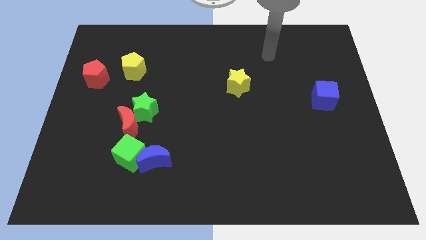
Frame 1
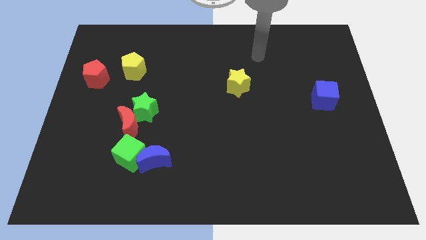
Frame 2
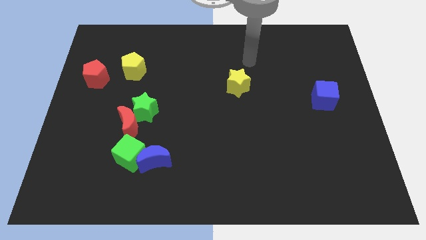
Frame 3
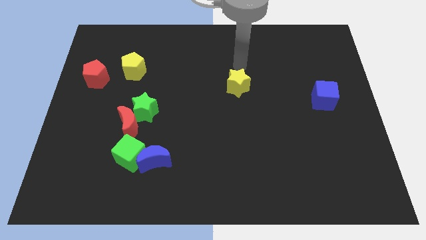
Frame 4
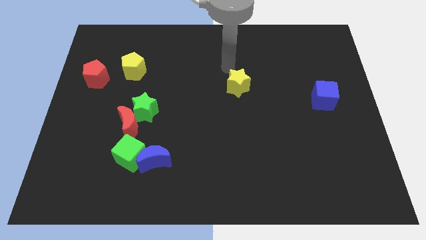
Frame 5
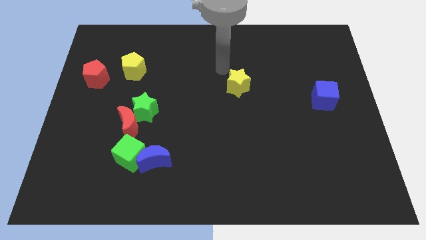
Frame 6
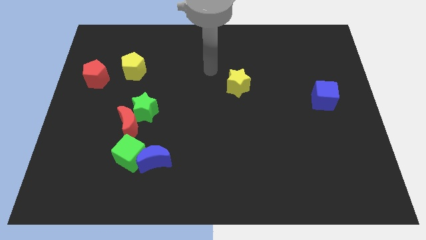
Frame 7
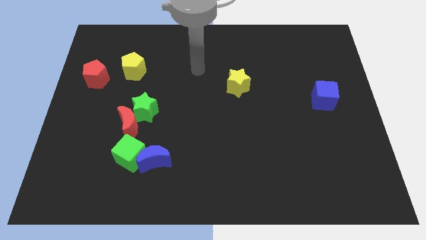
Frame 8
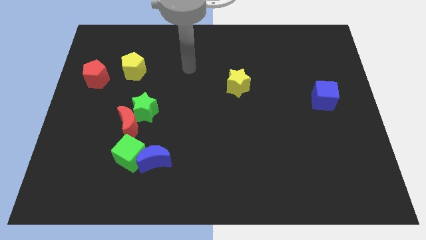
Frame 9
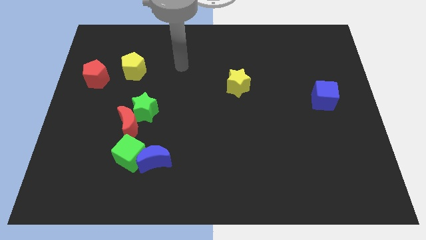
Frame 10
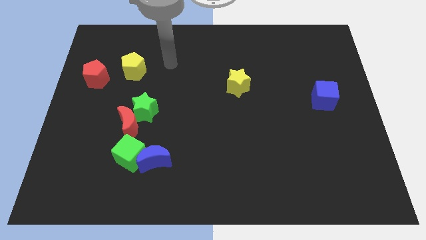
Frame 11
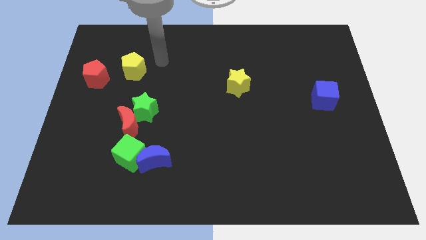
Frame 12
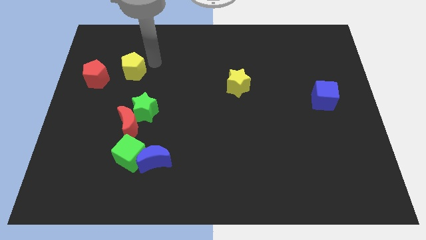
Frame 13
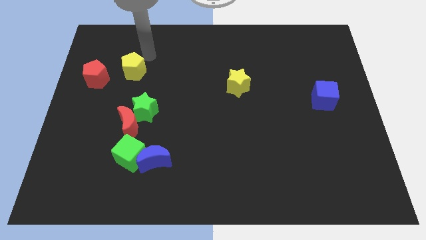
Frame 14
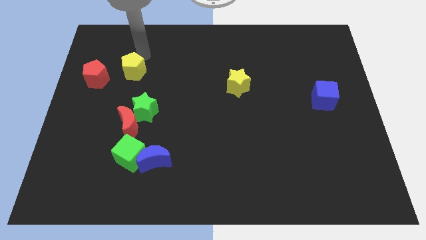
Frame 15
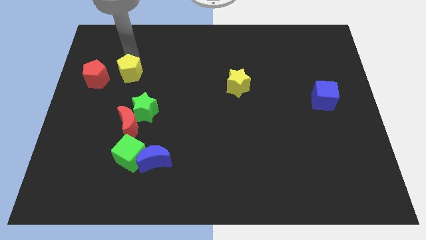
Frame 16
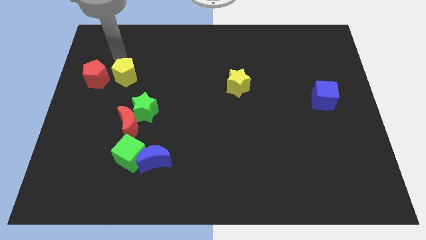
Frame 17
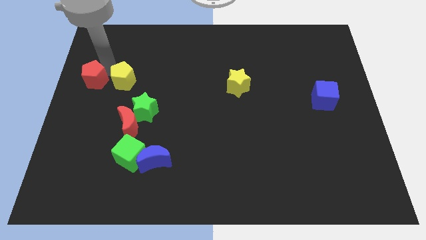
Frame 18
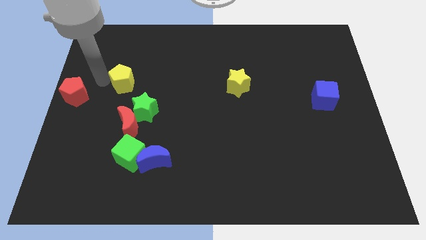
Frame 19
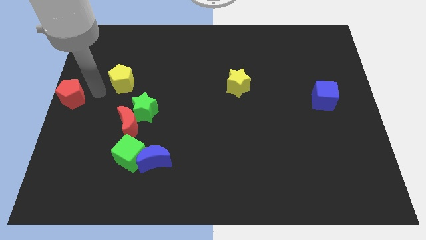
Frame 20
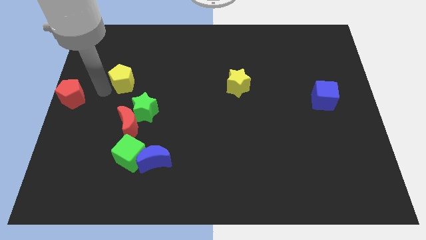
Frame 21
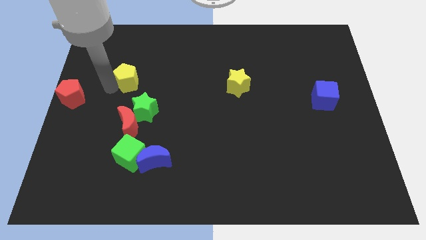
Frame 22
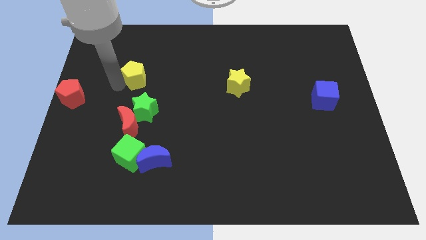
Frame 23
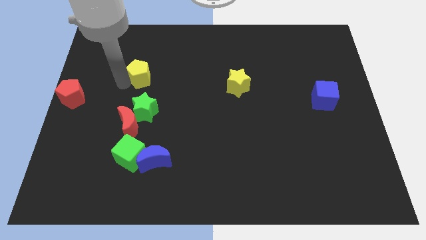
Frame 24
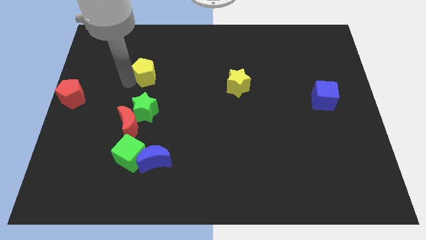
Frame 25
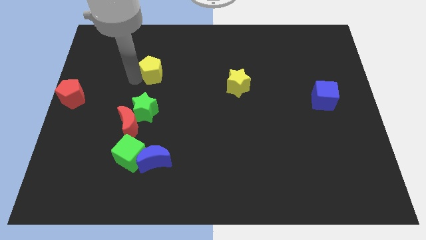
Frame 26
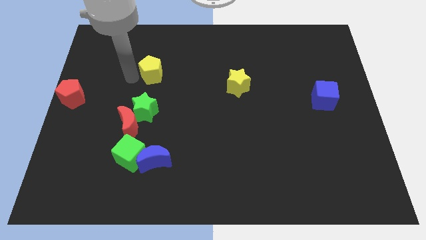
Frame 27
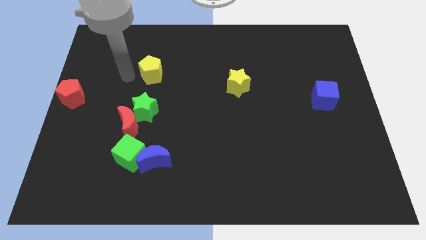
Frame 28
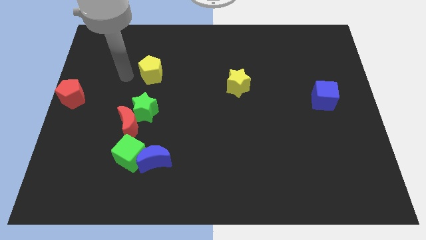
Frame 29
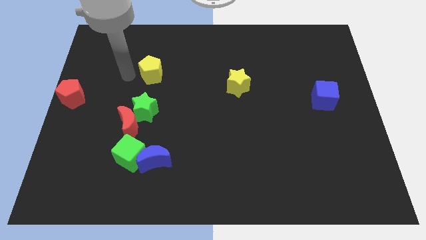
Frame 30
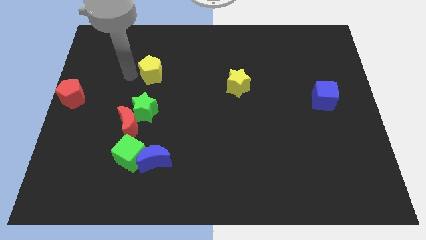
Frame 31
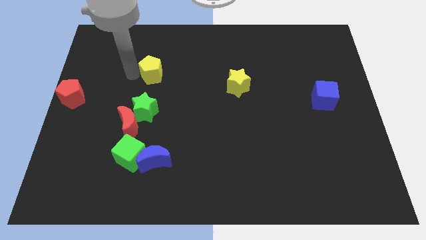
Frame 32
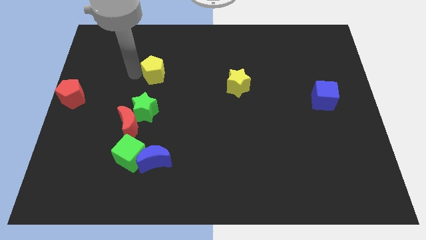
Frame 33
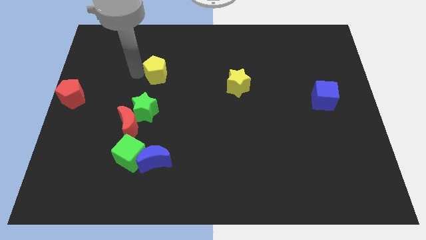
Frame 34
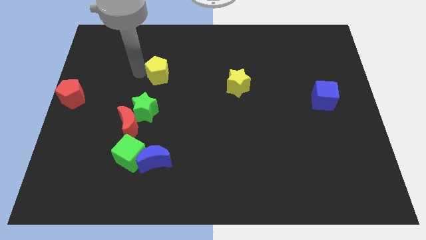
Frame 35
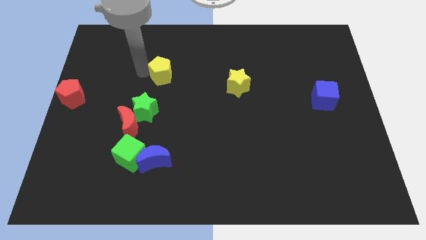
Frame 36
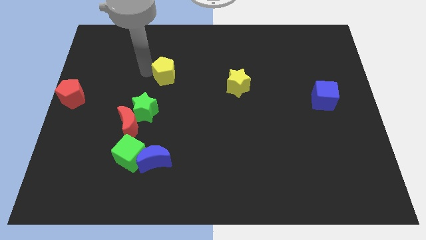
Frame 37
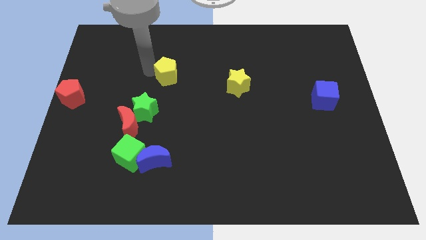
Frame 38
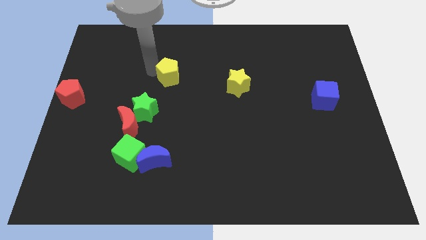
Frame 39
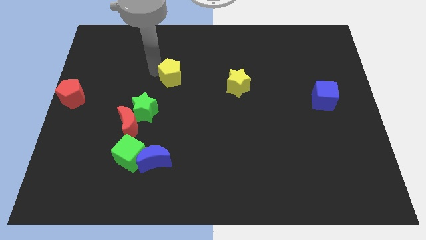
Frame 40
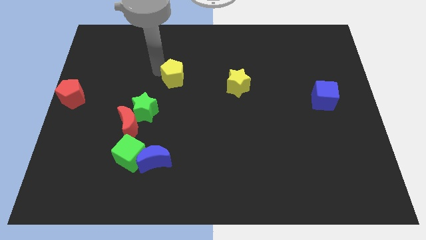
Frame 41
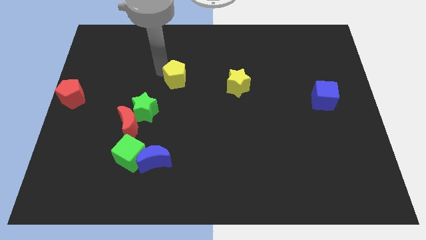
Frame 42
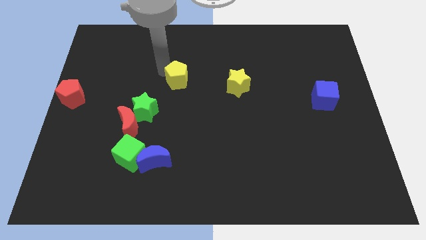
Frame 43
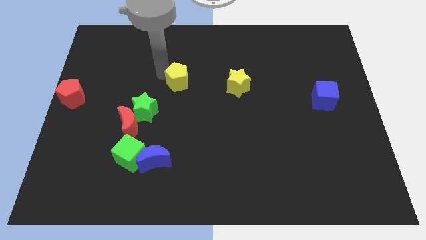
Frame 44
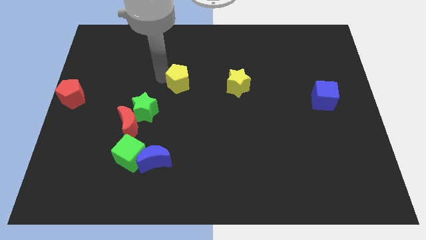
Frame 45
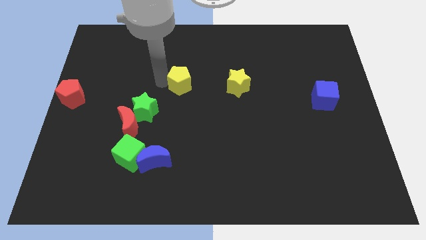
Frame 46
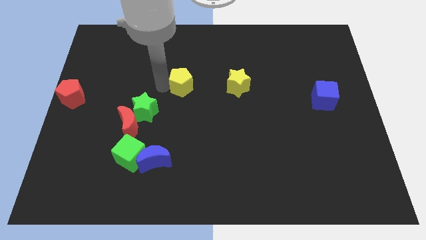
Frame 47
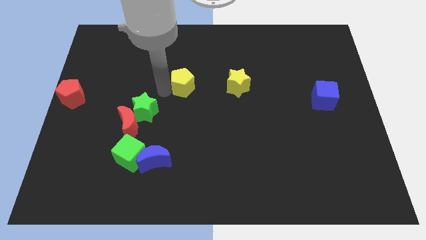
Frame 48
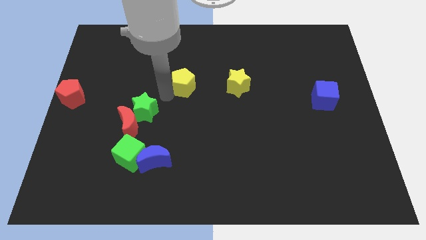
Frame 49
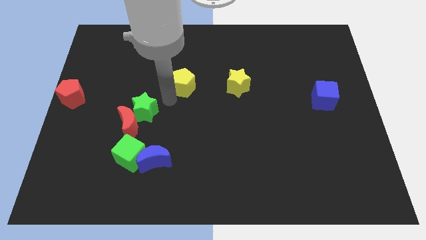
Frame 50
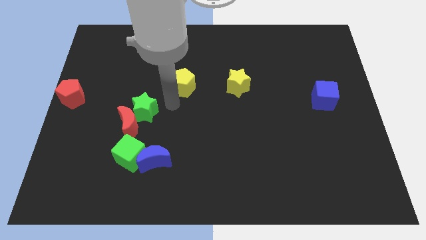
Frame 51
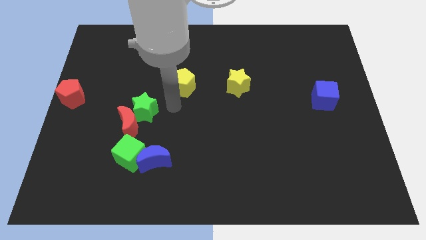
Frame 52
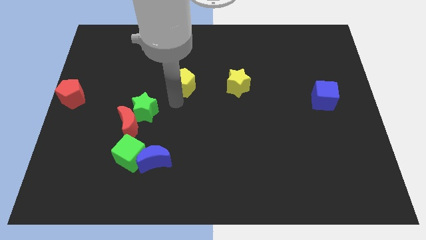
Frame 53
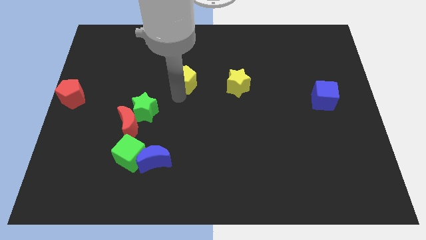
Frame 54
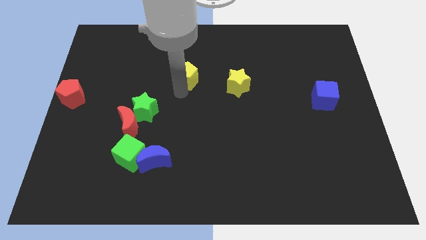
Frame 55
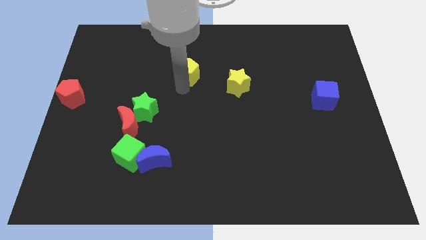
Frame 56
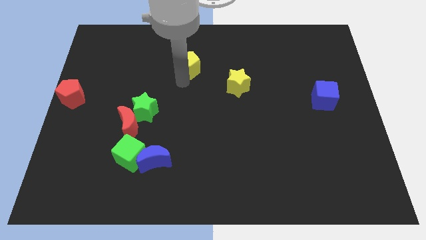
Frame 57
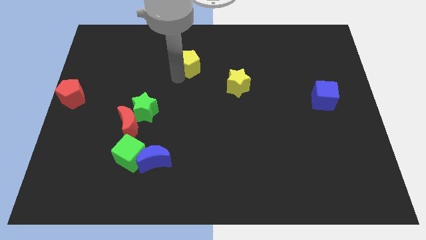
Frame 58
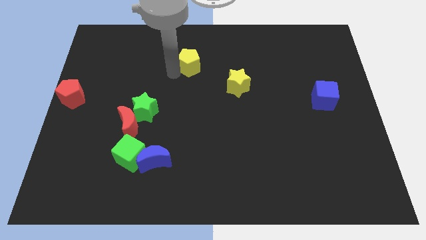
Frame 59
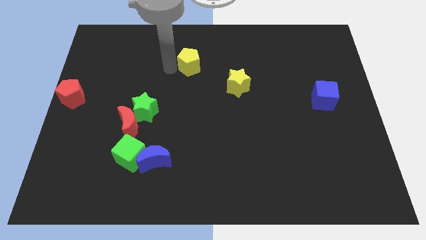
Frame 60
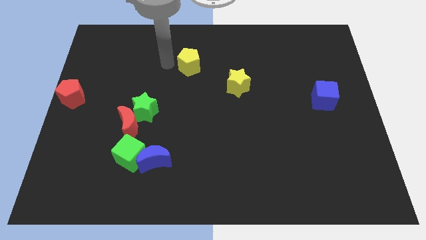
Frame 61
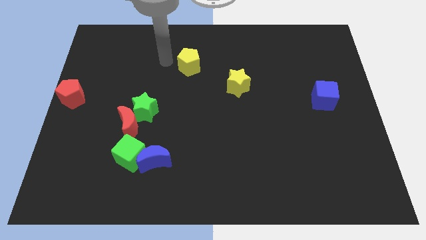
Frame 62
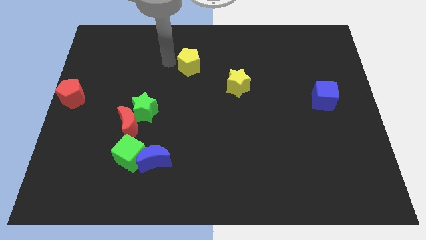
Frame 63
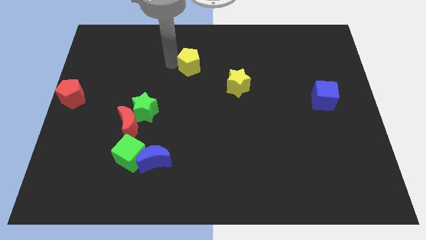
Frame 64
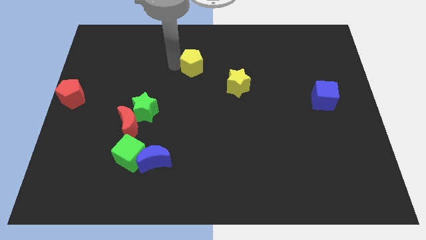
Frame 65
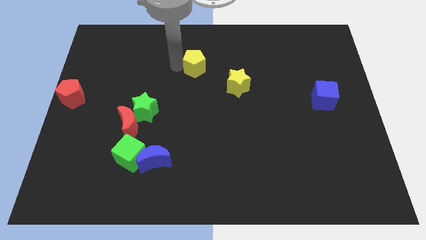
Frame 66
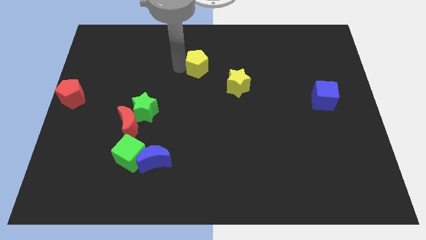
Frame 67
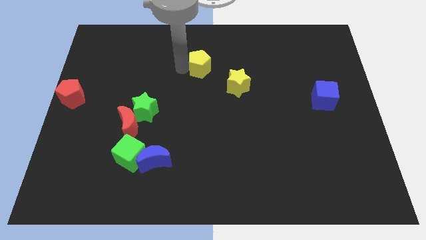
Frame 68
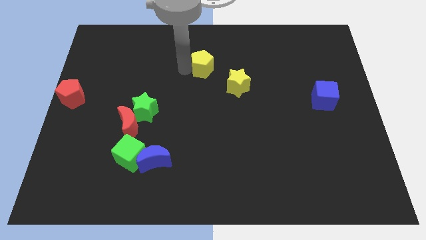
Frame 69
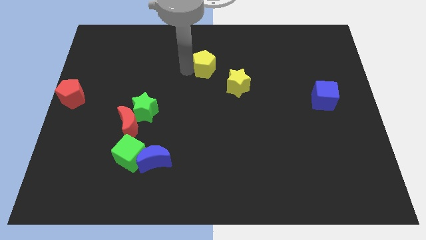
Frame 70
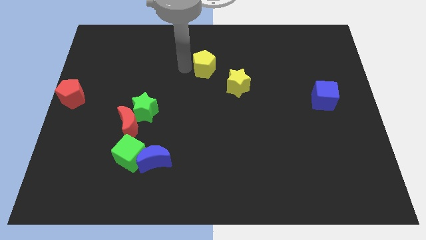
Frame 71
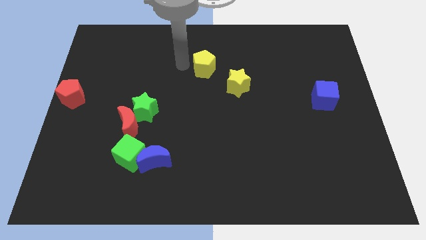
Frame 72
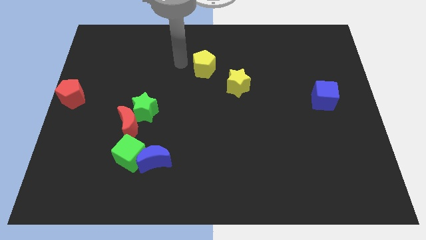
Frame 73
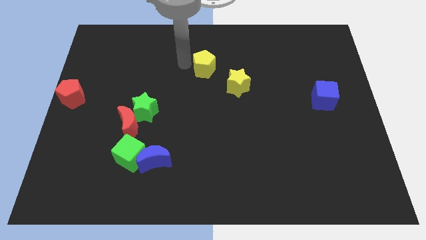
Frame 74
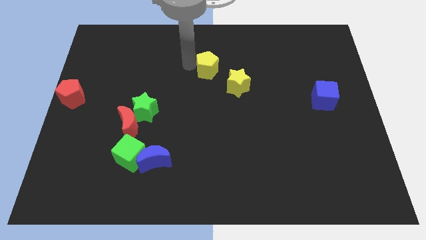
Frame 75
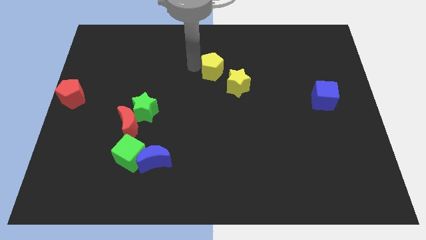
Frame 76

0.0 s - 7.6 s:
slide the yellow pentagon right

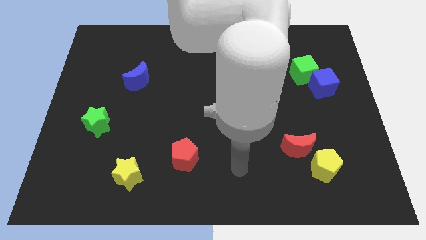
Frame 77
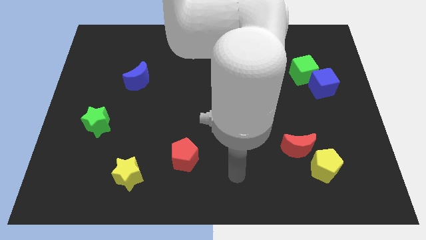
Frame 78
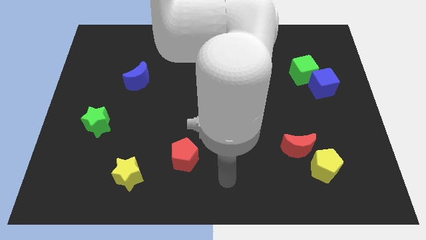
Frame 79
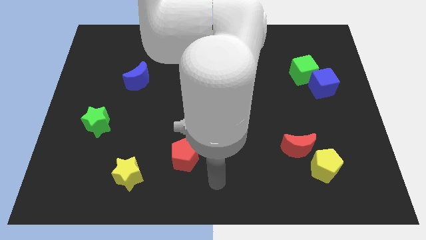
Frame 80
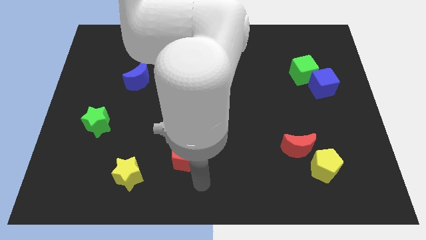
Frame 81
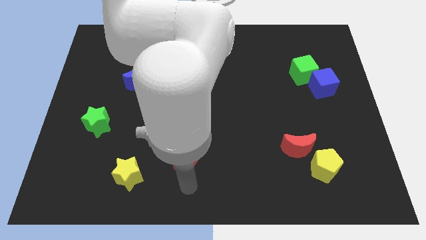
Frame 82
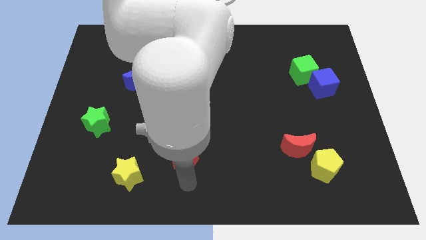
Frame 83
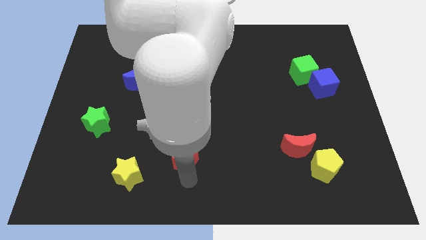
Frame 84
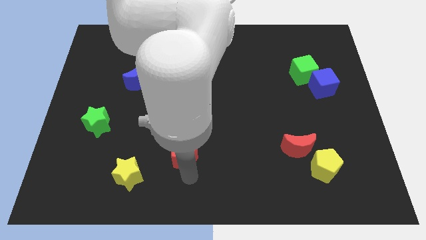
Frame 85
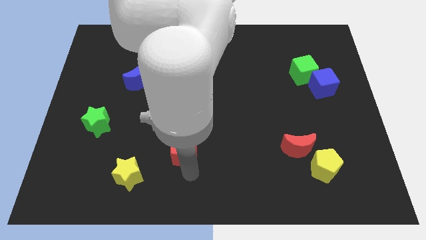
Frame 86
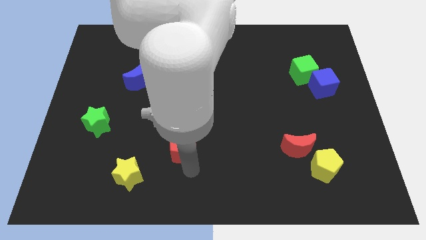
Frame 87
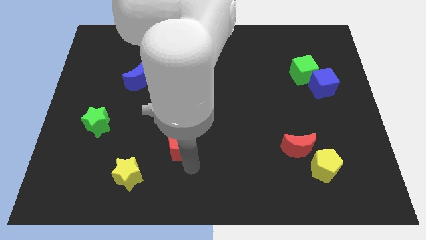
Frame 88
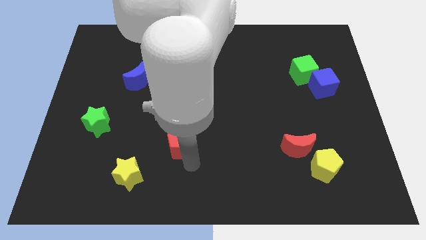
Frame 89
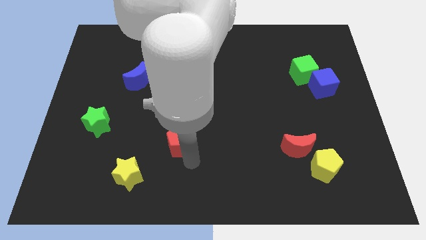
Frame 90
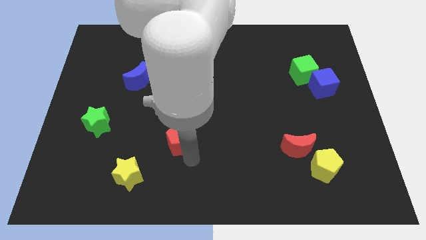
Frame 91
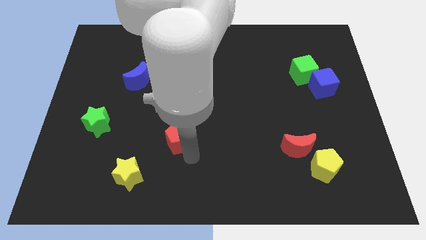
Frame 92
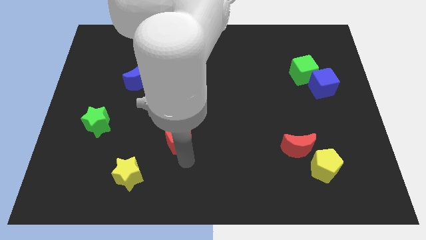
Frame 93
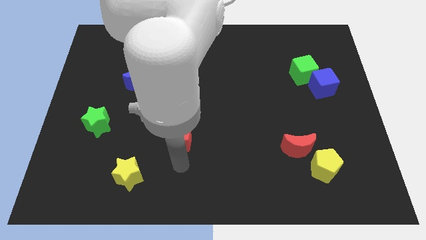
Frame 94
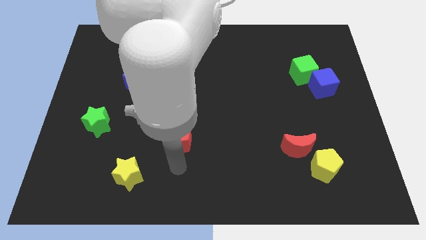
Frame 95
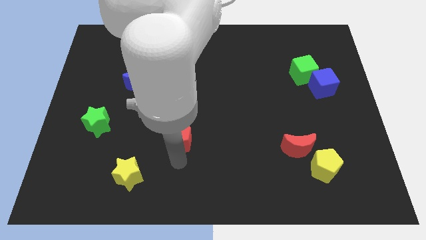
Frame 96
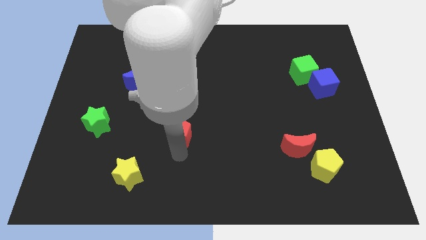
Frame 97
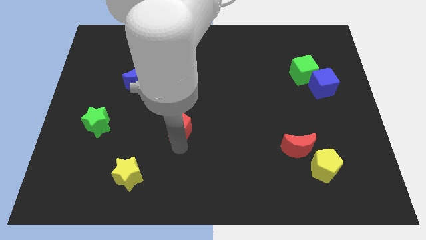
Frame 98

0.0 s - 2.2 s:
slightly push the red pentagon up
